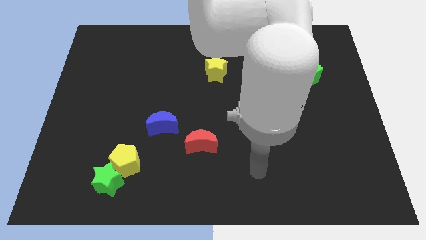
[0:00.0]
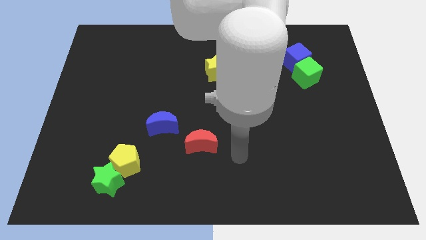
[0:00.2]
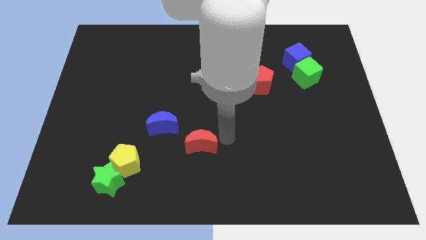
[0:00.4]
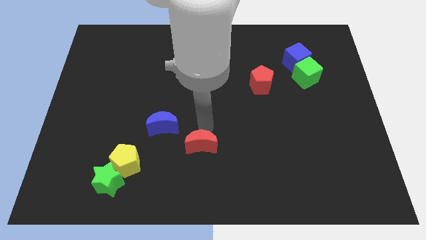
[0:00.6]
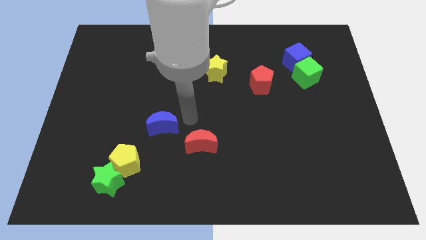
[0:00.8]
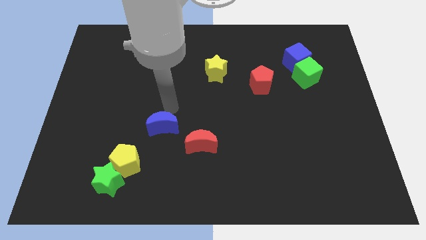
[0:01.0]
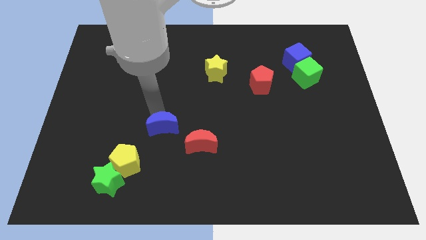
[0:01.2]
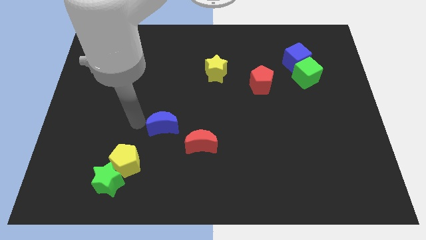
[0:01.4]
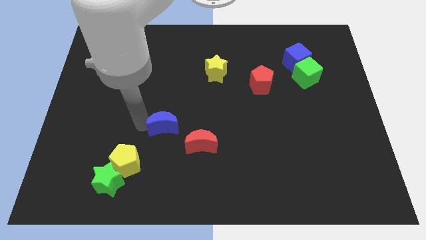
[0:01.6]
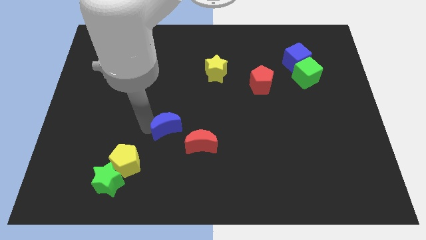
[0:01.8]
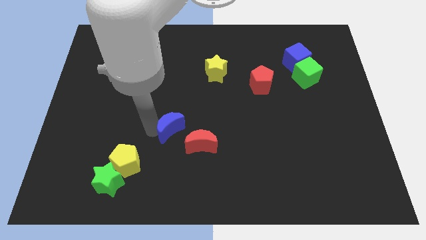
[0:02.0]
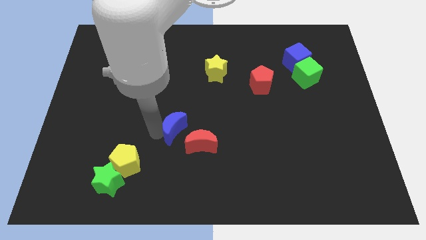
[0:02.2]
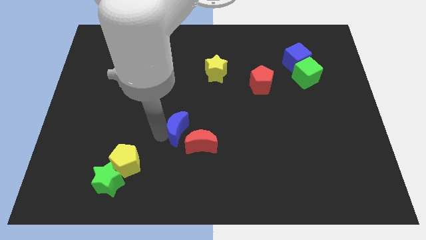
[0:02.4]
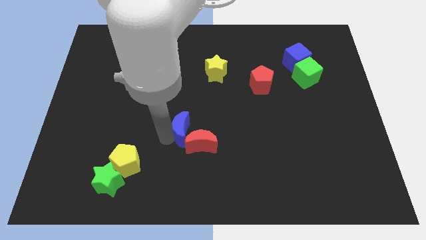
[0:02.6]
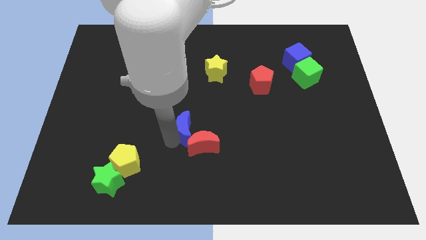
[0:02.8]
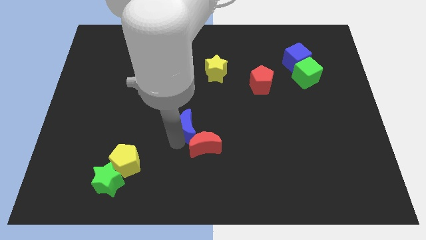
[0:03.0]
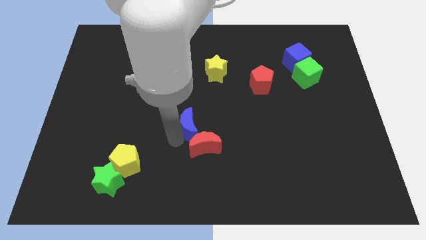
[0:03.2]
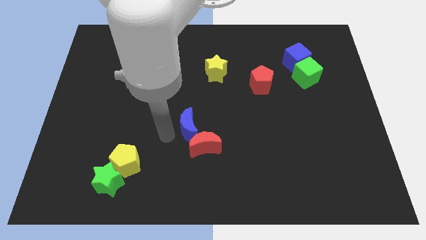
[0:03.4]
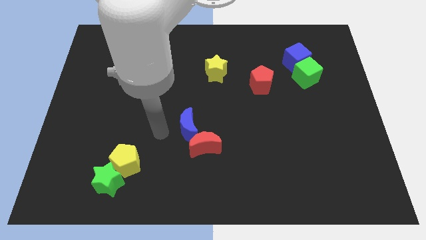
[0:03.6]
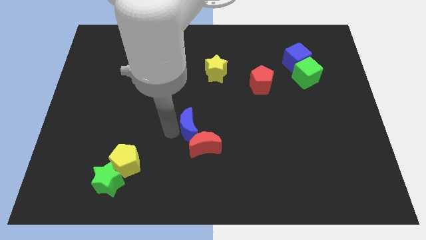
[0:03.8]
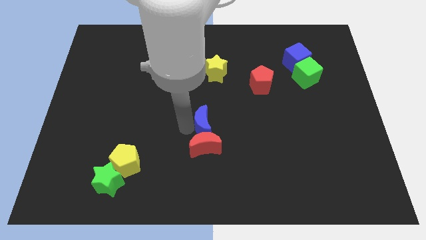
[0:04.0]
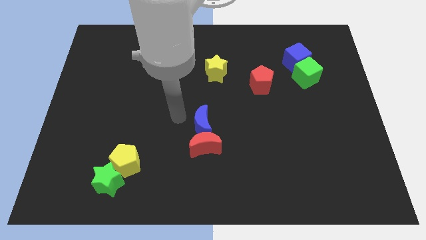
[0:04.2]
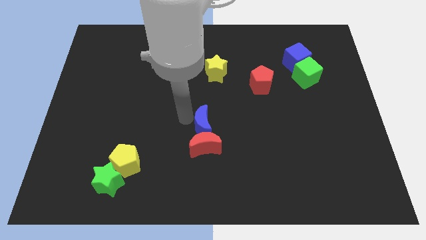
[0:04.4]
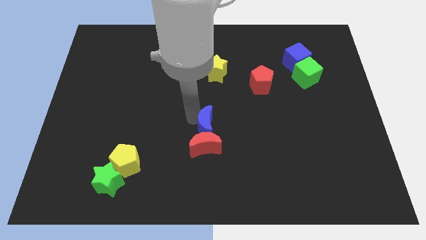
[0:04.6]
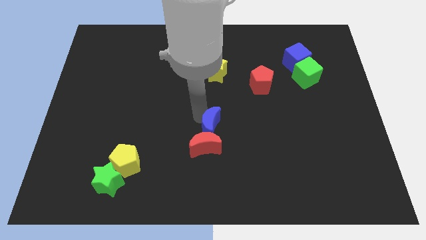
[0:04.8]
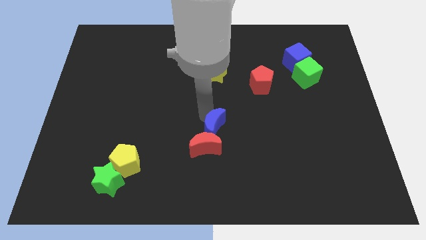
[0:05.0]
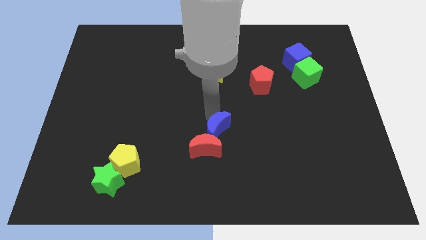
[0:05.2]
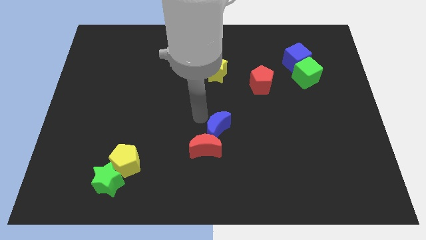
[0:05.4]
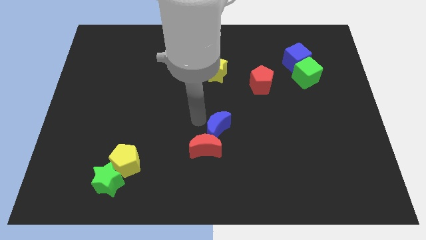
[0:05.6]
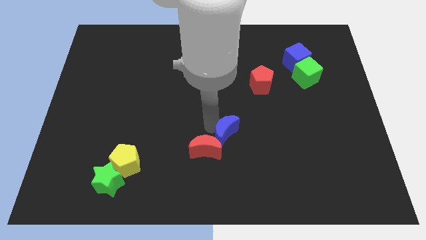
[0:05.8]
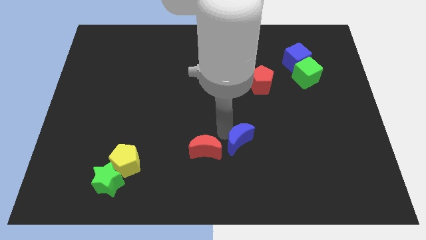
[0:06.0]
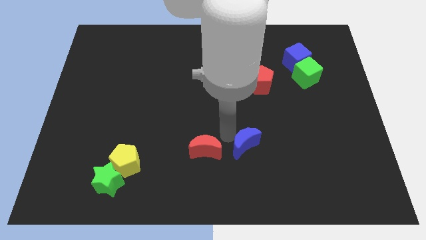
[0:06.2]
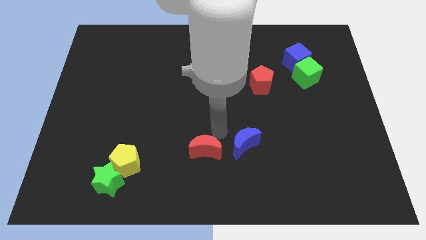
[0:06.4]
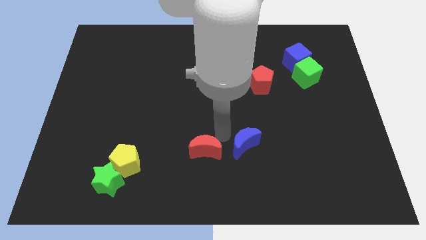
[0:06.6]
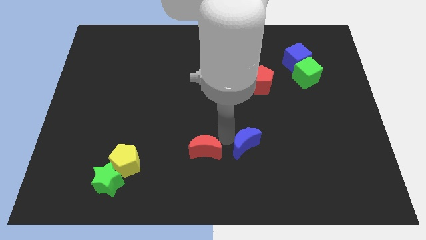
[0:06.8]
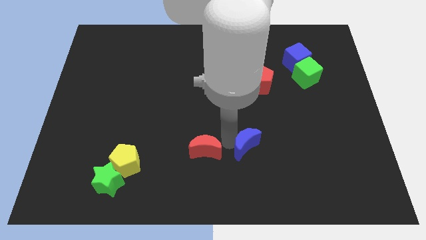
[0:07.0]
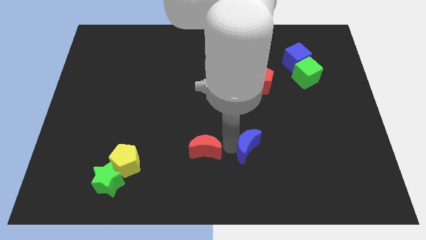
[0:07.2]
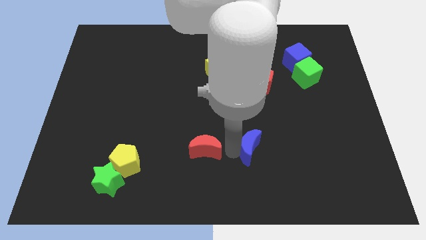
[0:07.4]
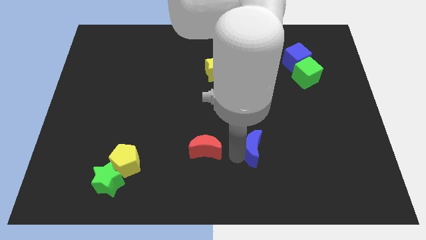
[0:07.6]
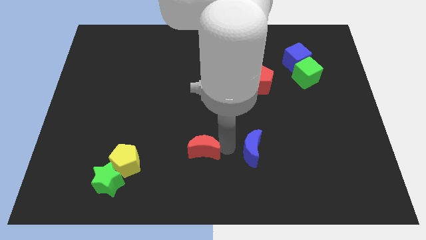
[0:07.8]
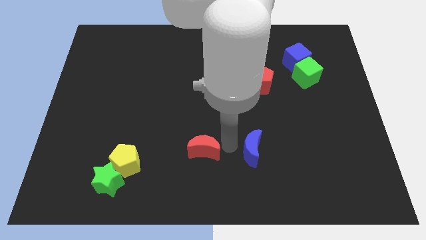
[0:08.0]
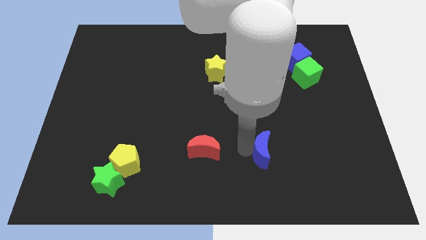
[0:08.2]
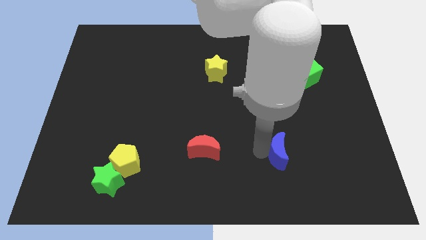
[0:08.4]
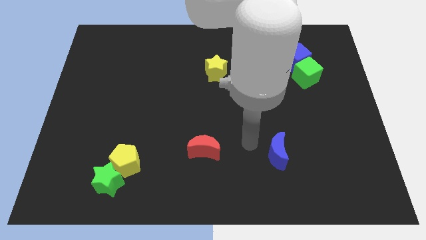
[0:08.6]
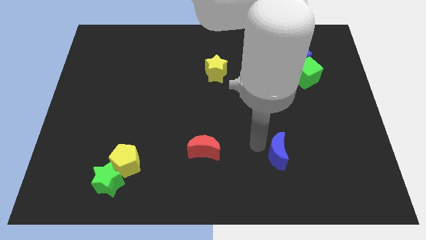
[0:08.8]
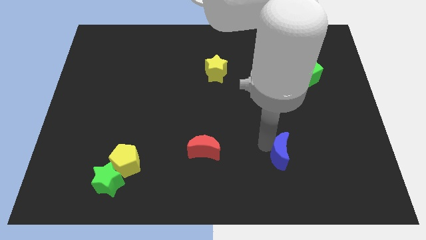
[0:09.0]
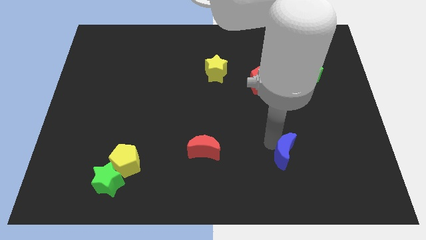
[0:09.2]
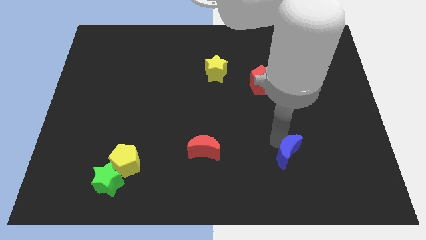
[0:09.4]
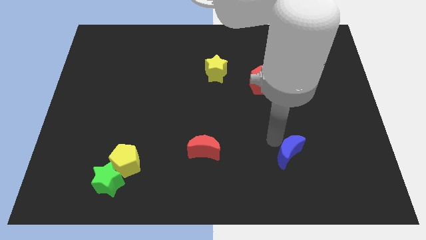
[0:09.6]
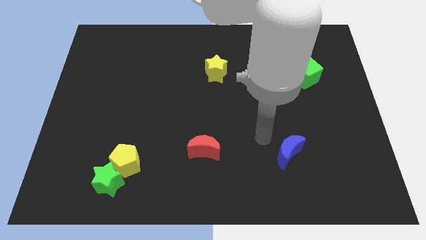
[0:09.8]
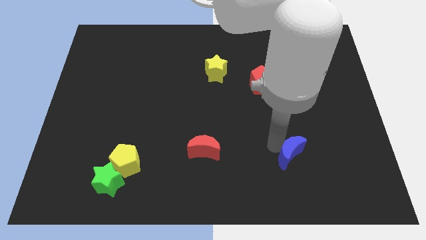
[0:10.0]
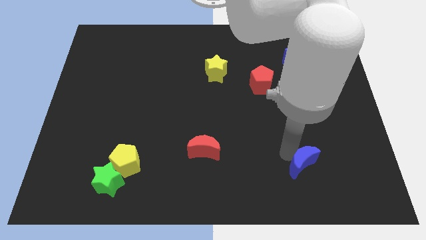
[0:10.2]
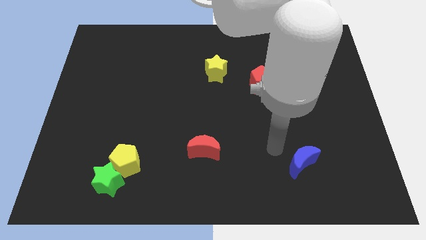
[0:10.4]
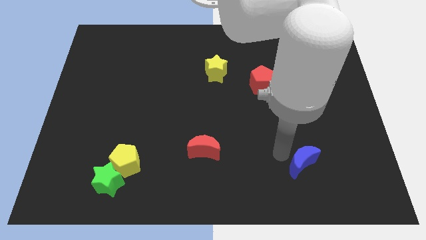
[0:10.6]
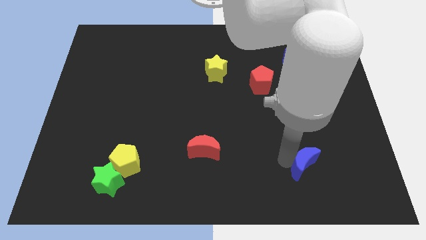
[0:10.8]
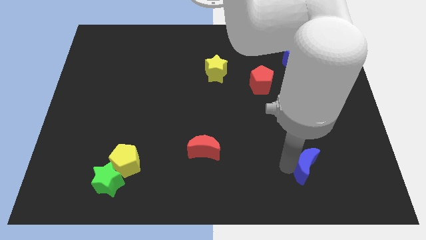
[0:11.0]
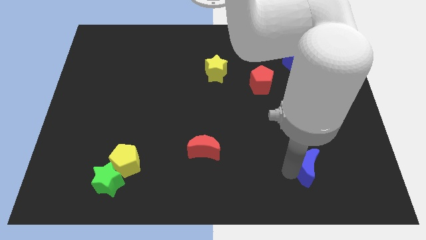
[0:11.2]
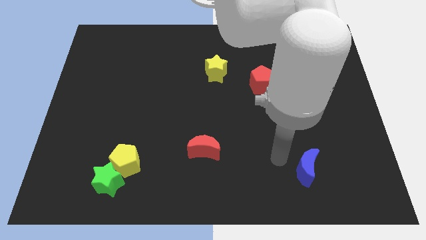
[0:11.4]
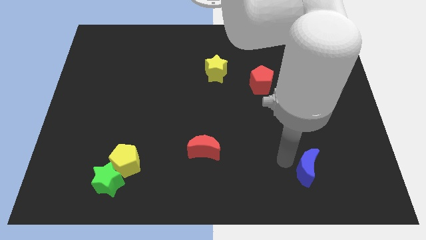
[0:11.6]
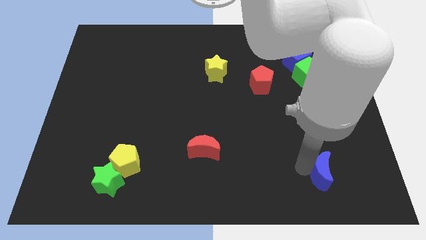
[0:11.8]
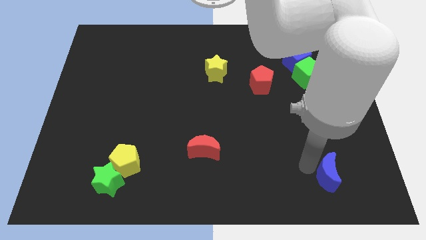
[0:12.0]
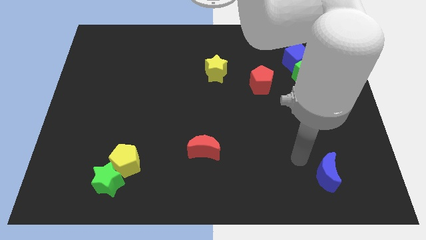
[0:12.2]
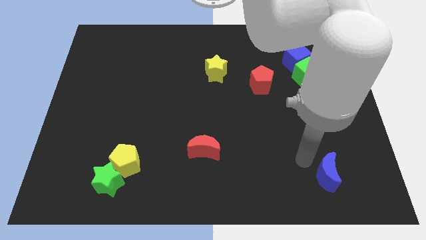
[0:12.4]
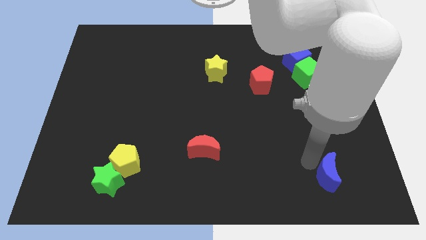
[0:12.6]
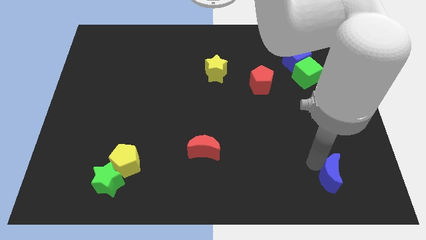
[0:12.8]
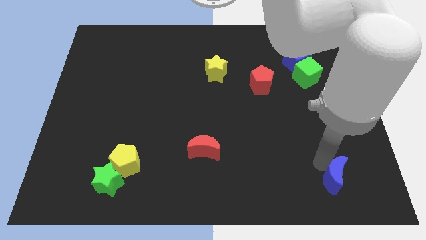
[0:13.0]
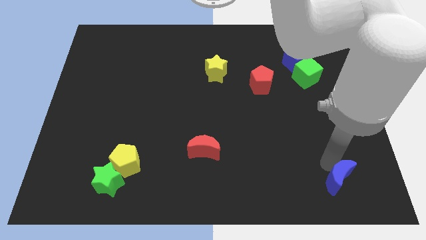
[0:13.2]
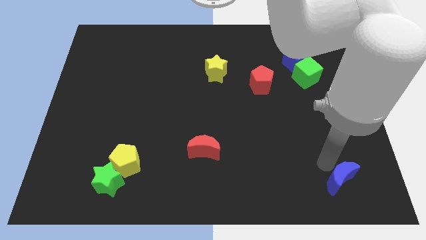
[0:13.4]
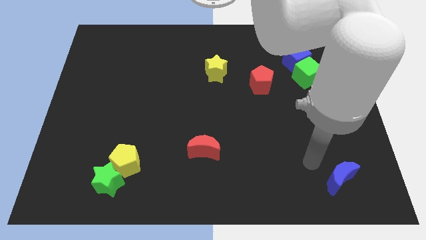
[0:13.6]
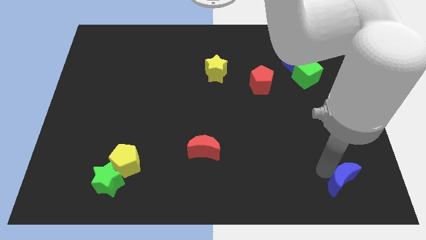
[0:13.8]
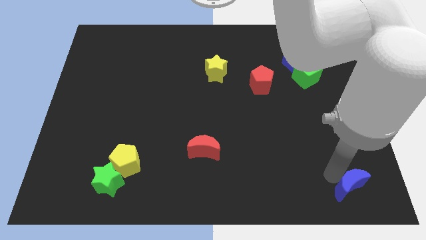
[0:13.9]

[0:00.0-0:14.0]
put the blue moon to the bottom right corner
